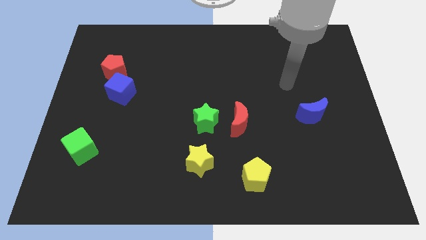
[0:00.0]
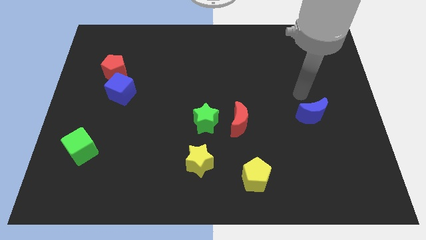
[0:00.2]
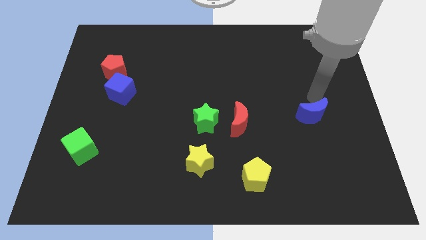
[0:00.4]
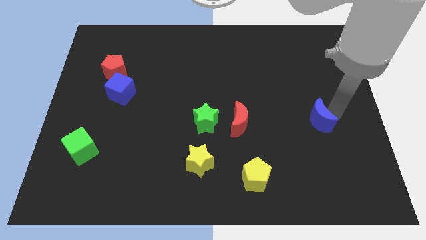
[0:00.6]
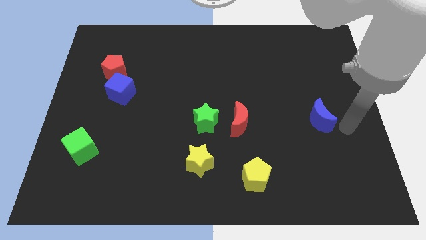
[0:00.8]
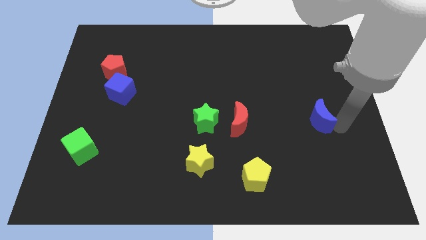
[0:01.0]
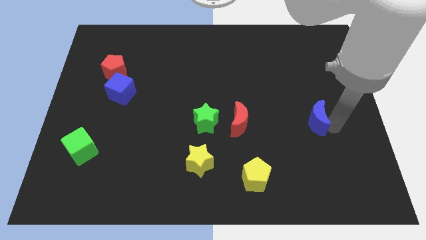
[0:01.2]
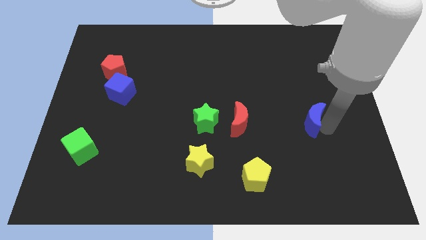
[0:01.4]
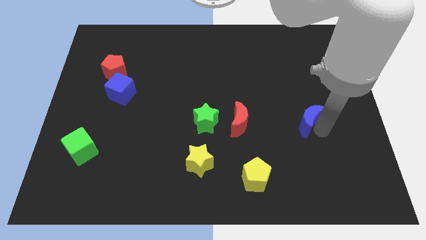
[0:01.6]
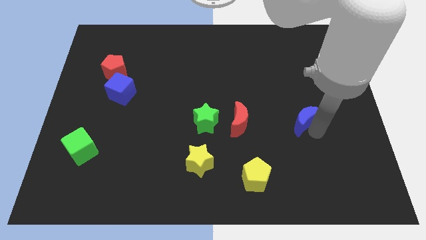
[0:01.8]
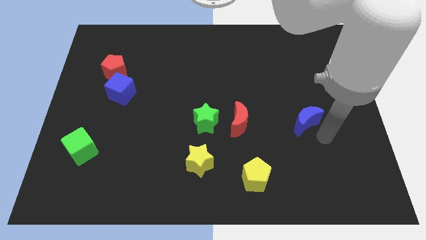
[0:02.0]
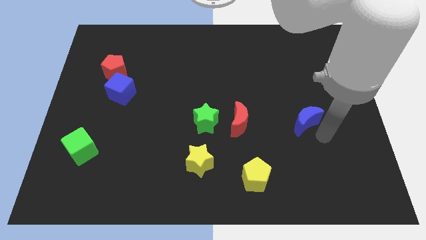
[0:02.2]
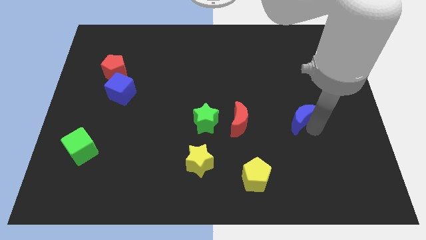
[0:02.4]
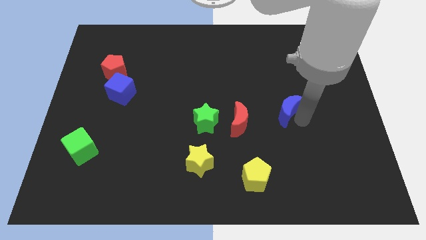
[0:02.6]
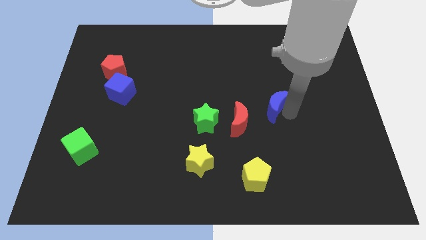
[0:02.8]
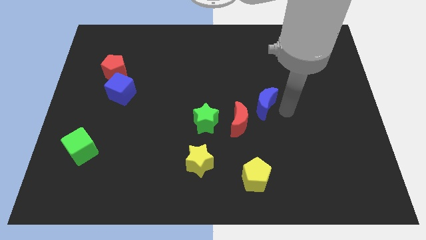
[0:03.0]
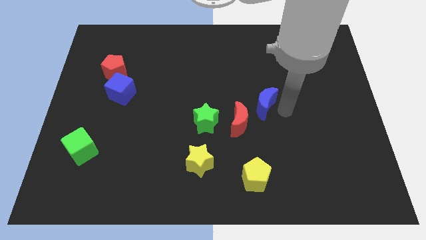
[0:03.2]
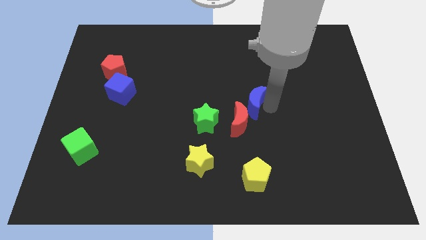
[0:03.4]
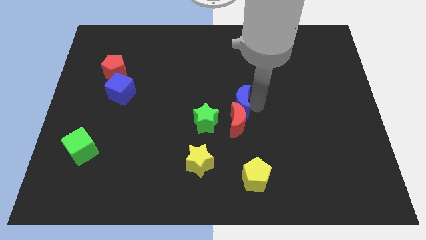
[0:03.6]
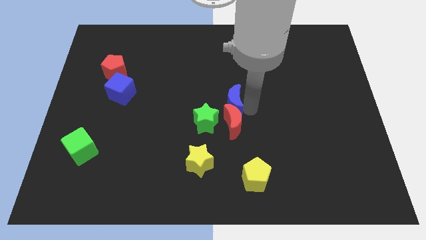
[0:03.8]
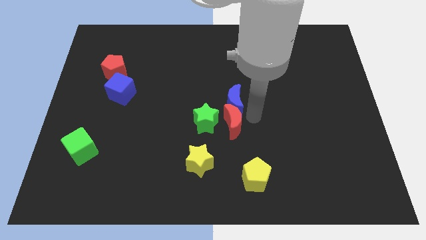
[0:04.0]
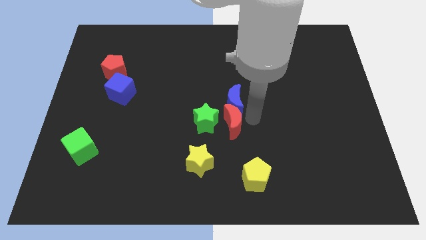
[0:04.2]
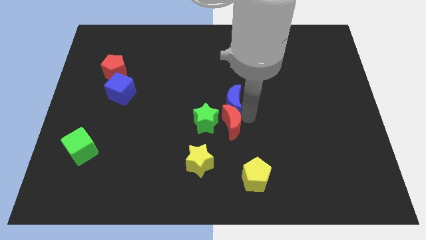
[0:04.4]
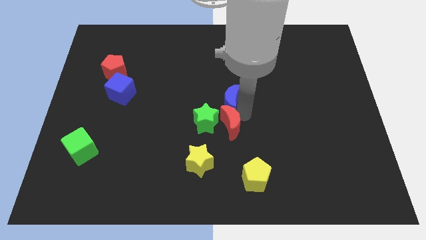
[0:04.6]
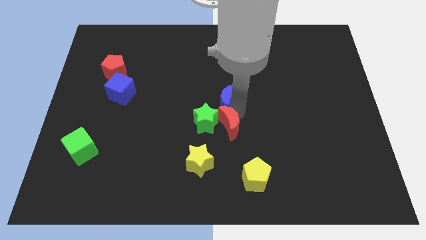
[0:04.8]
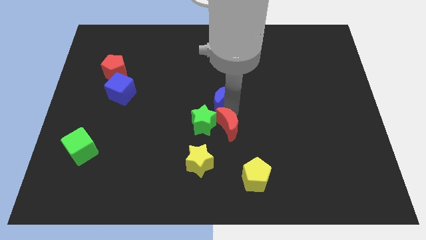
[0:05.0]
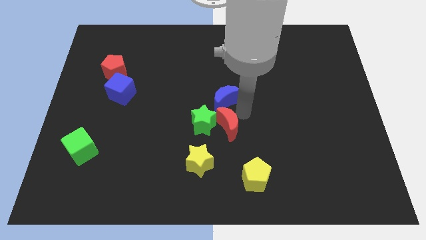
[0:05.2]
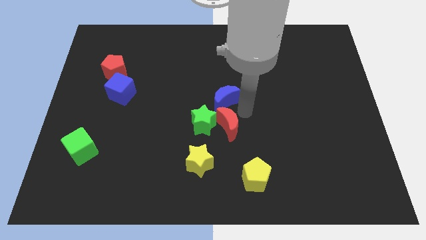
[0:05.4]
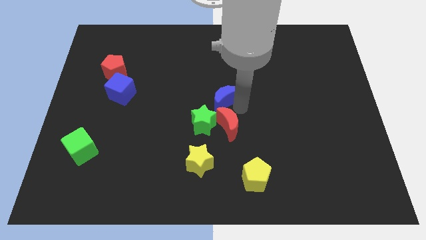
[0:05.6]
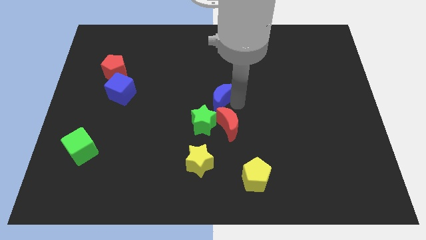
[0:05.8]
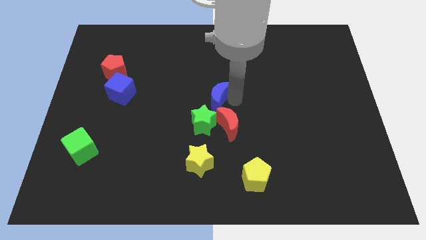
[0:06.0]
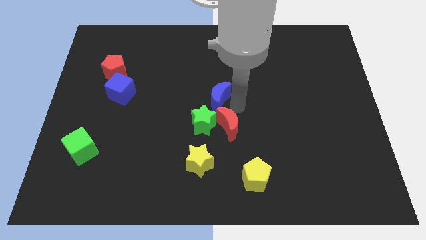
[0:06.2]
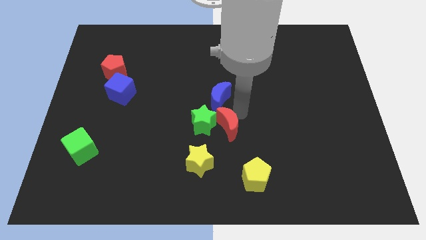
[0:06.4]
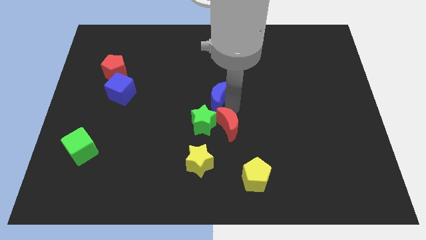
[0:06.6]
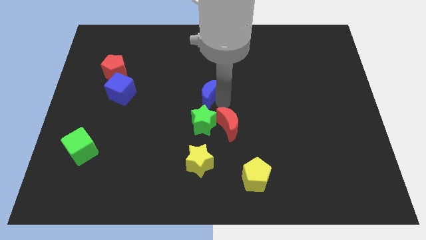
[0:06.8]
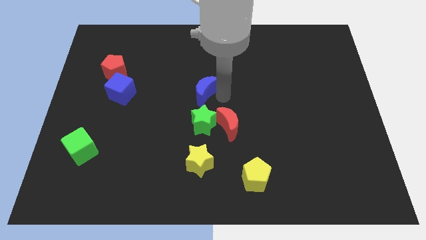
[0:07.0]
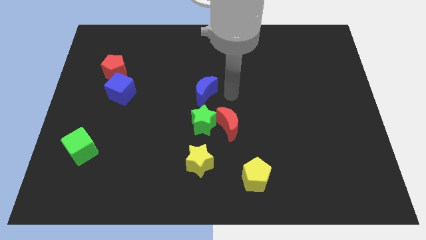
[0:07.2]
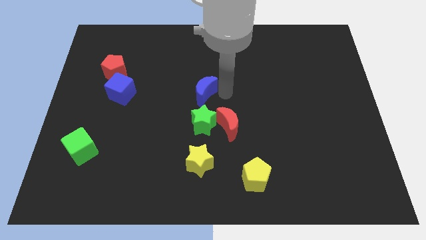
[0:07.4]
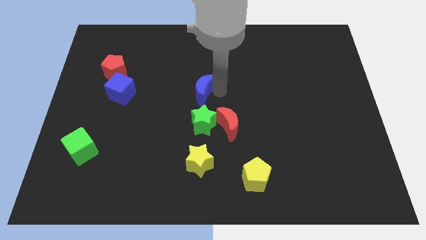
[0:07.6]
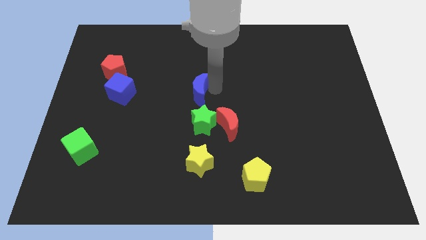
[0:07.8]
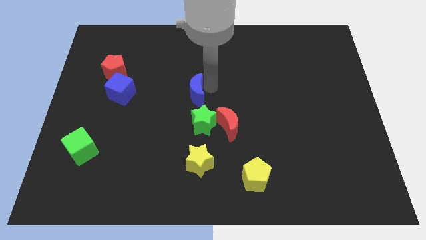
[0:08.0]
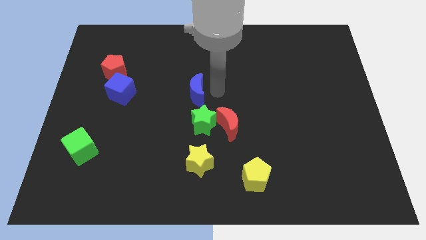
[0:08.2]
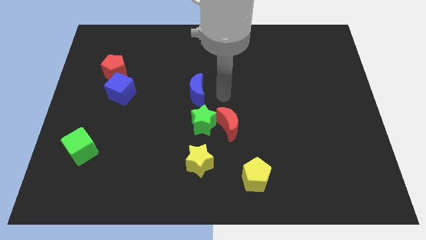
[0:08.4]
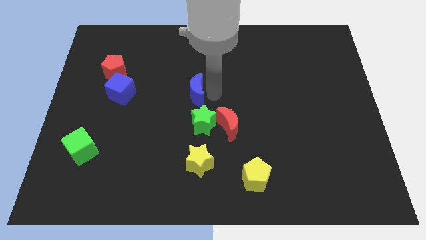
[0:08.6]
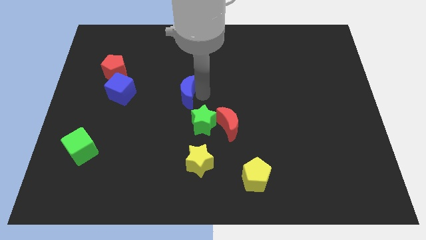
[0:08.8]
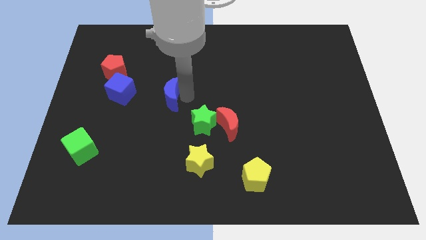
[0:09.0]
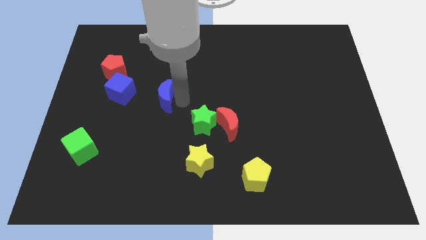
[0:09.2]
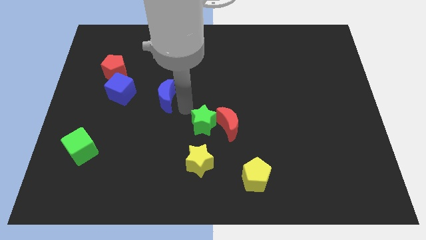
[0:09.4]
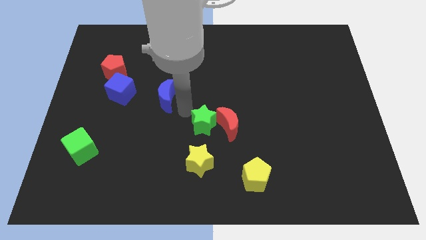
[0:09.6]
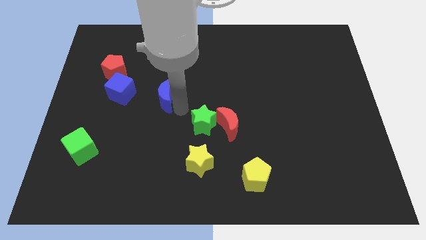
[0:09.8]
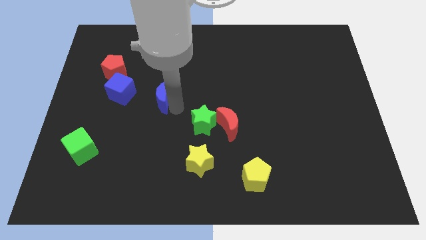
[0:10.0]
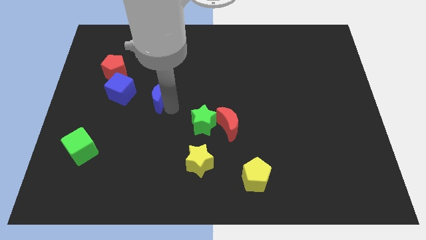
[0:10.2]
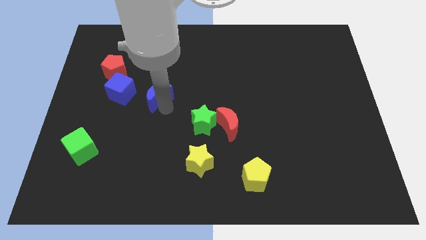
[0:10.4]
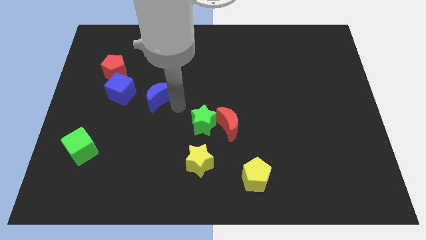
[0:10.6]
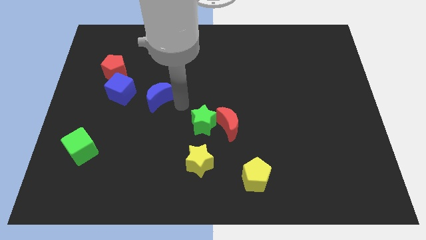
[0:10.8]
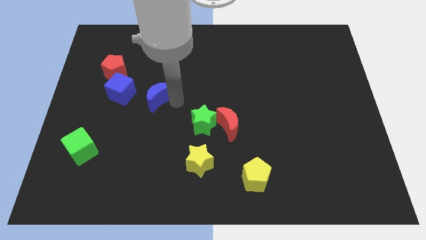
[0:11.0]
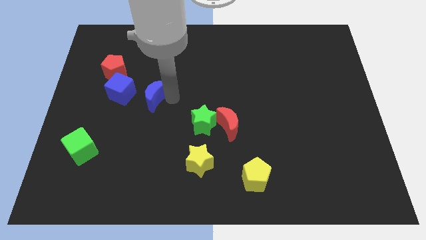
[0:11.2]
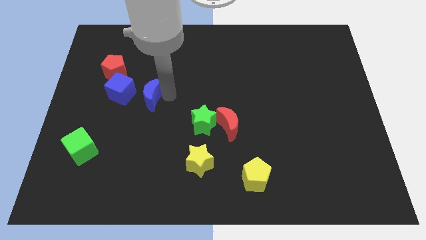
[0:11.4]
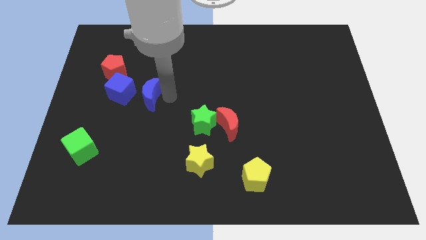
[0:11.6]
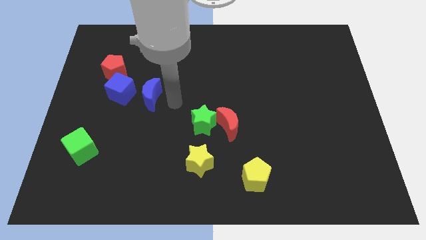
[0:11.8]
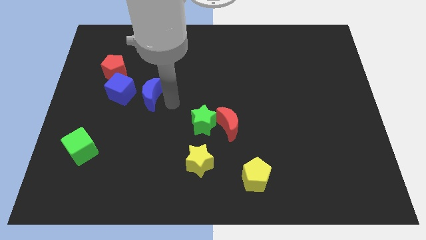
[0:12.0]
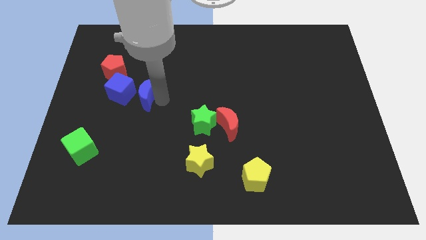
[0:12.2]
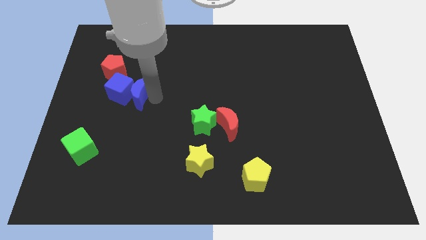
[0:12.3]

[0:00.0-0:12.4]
push the blue moon towards the blue cube

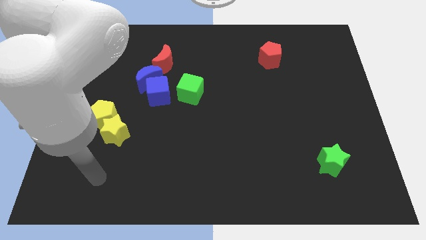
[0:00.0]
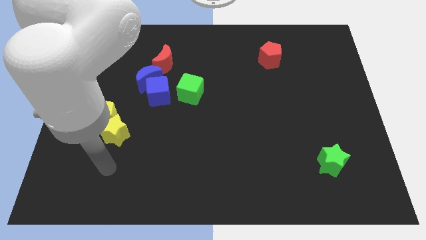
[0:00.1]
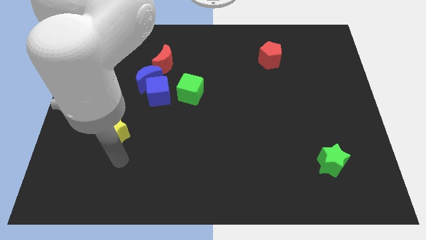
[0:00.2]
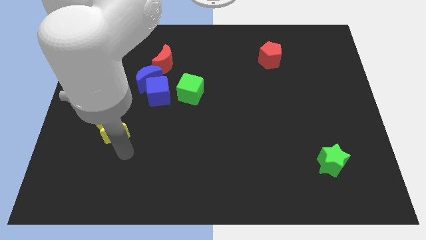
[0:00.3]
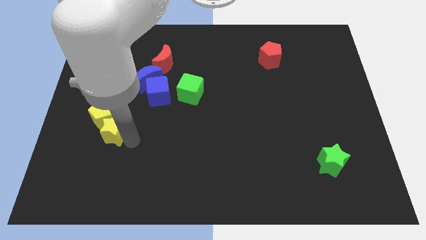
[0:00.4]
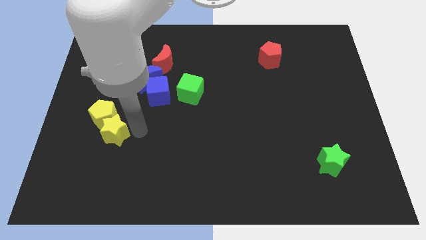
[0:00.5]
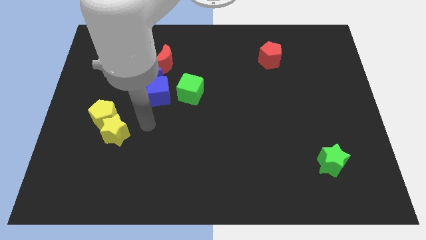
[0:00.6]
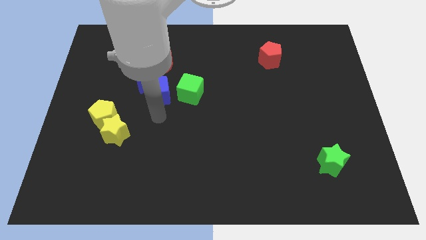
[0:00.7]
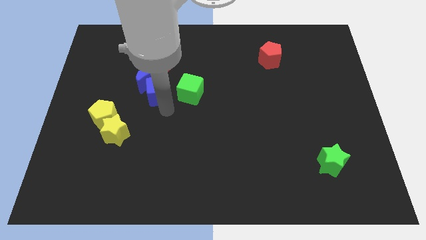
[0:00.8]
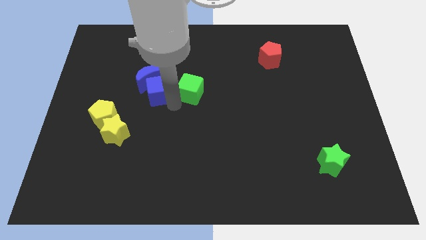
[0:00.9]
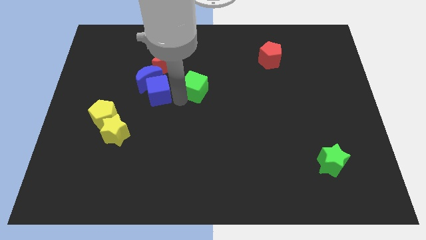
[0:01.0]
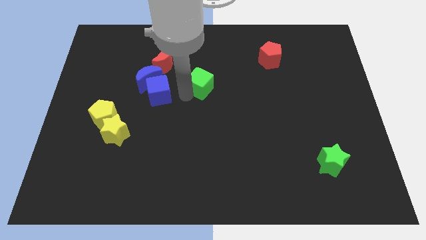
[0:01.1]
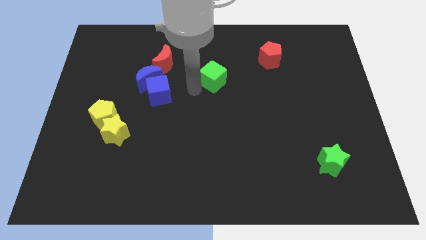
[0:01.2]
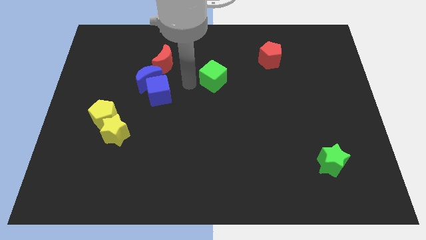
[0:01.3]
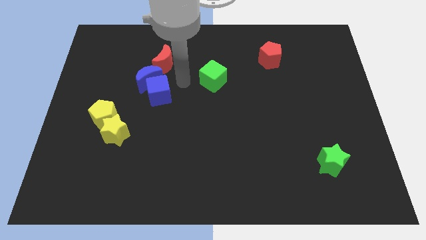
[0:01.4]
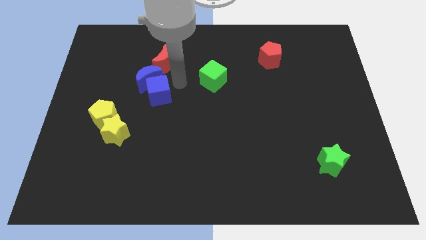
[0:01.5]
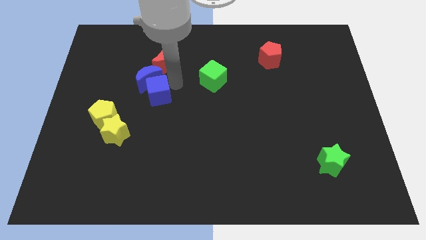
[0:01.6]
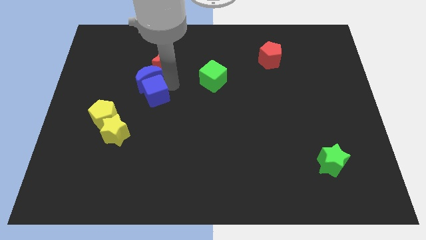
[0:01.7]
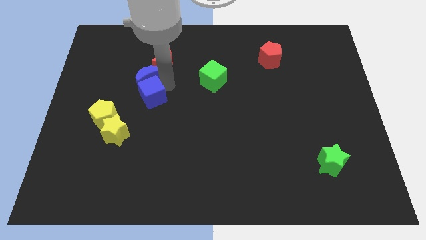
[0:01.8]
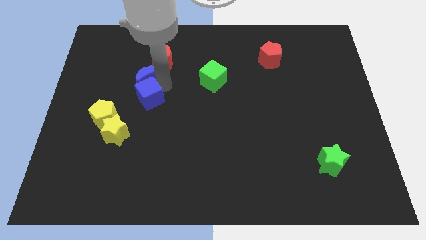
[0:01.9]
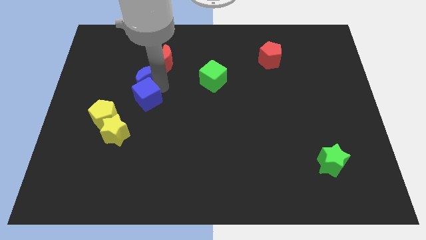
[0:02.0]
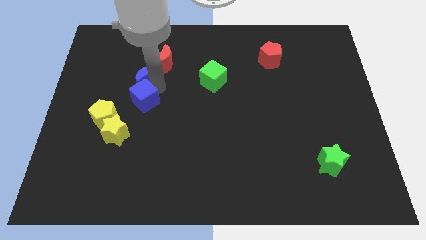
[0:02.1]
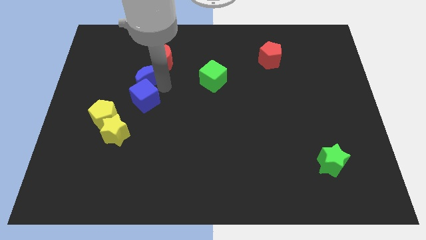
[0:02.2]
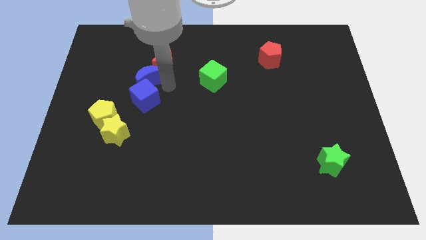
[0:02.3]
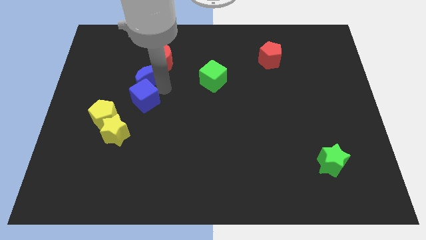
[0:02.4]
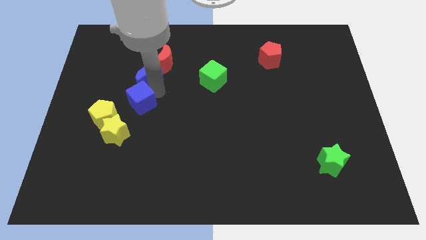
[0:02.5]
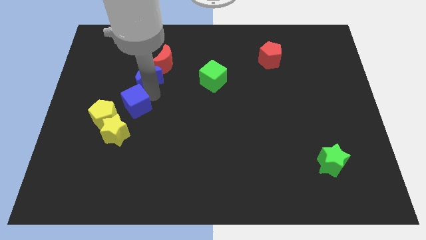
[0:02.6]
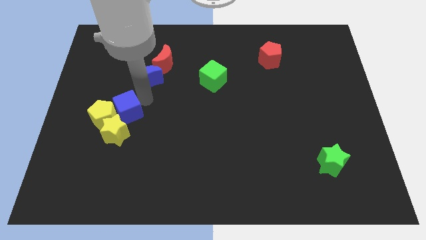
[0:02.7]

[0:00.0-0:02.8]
slide the blue cube close to the yellow pentagon
